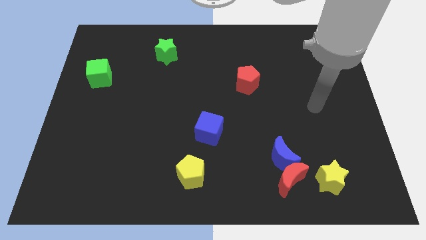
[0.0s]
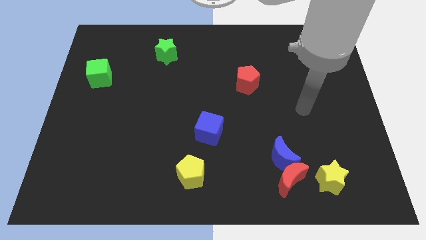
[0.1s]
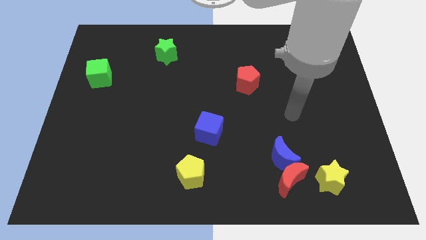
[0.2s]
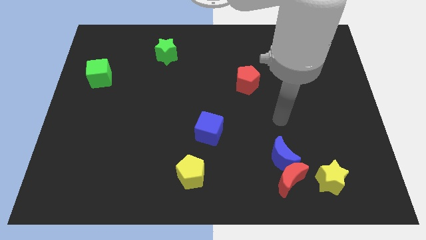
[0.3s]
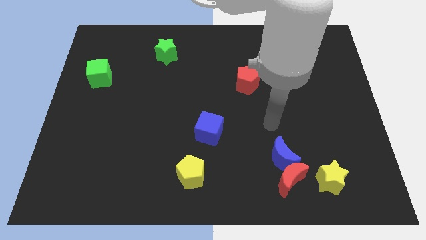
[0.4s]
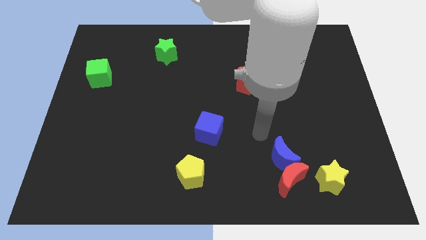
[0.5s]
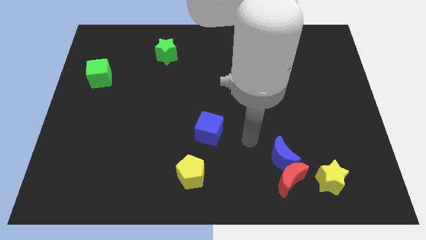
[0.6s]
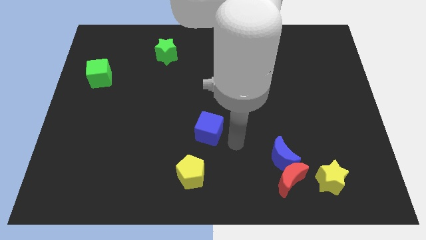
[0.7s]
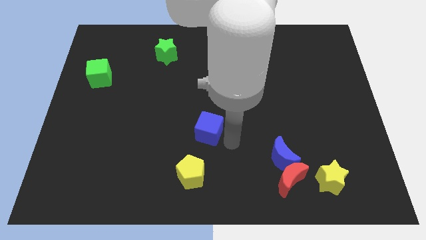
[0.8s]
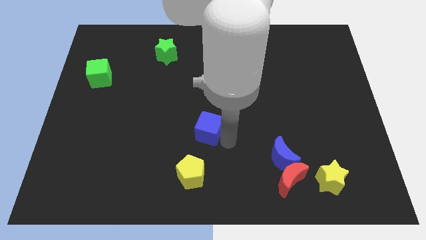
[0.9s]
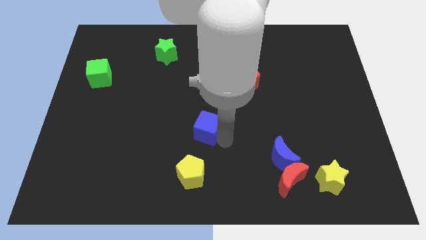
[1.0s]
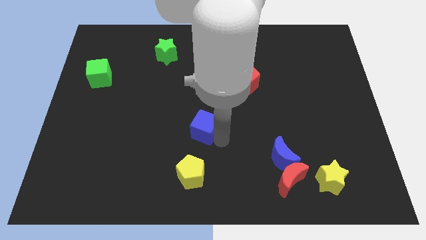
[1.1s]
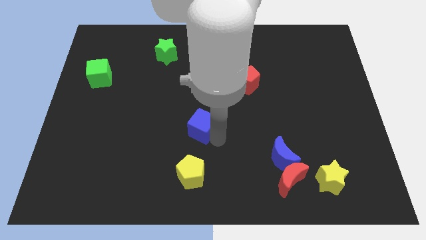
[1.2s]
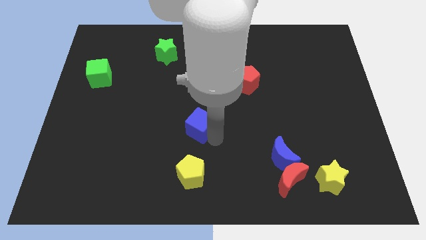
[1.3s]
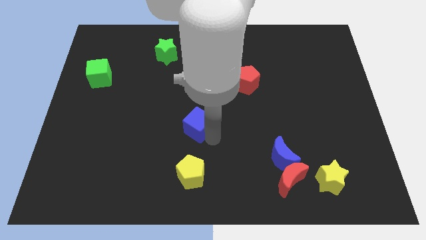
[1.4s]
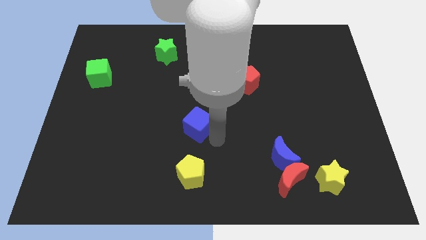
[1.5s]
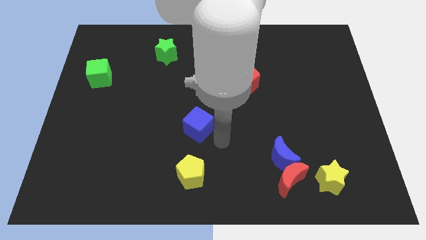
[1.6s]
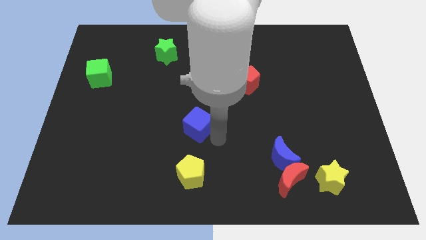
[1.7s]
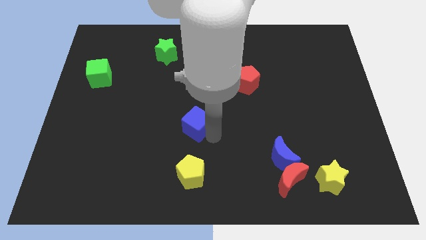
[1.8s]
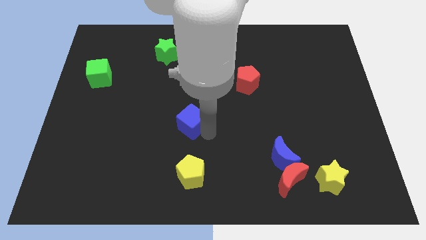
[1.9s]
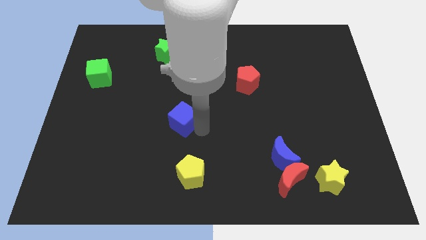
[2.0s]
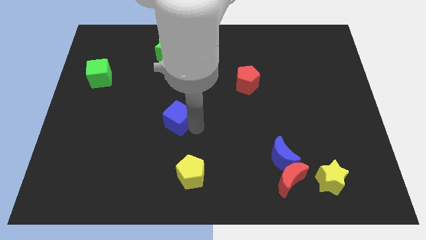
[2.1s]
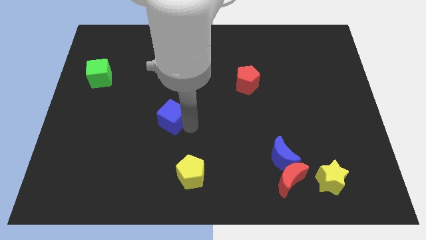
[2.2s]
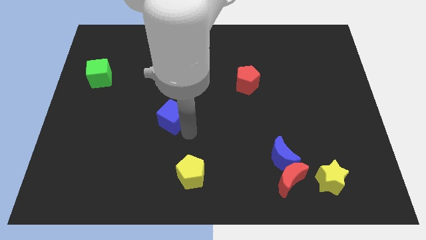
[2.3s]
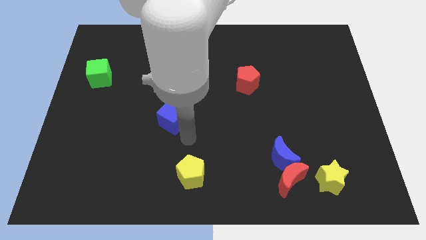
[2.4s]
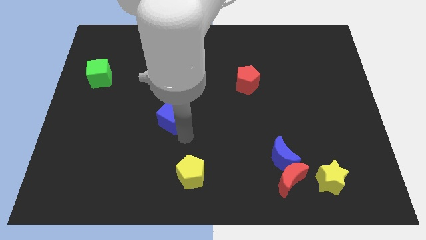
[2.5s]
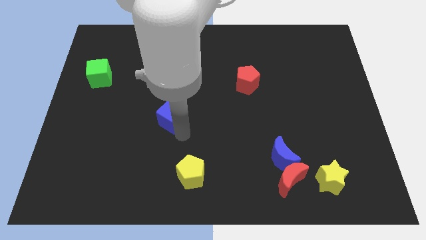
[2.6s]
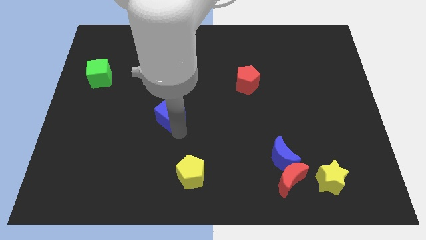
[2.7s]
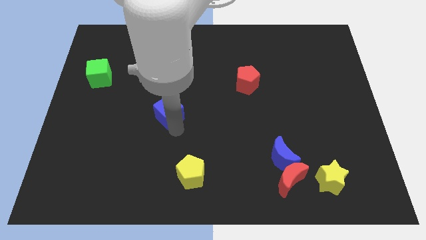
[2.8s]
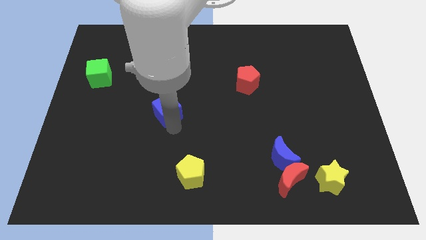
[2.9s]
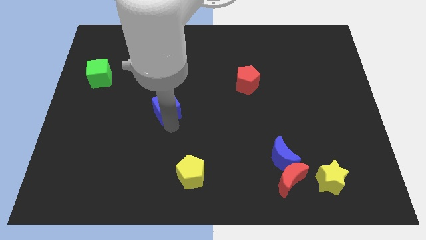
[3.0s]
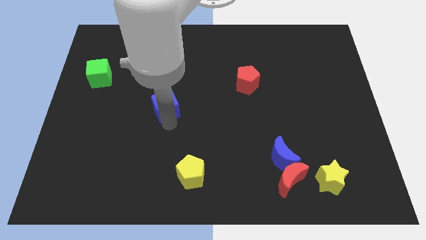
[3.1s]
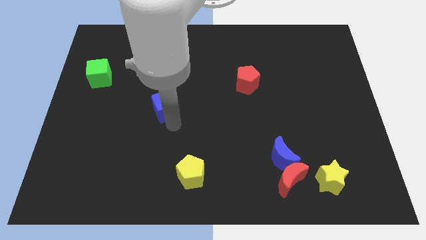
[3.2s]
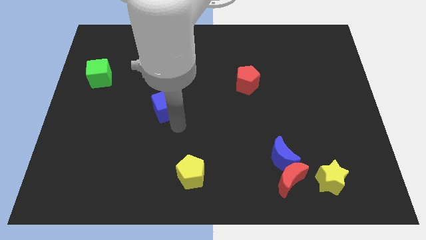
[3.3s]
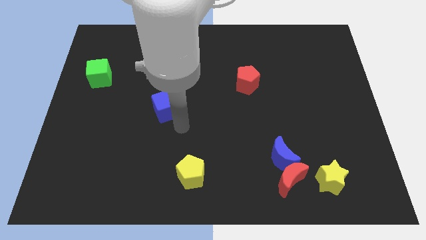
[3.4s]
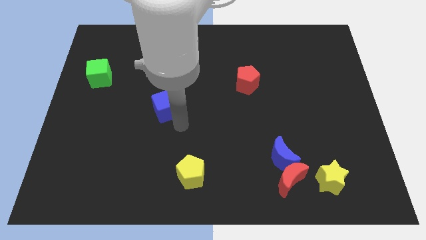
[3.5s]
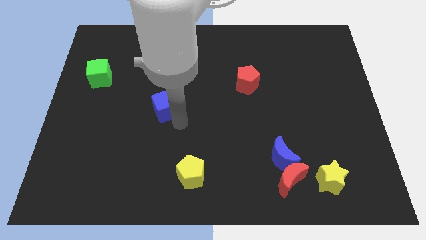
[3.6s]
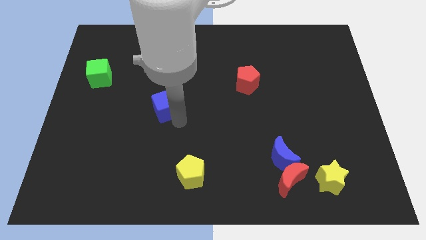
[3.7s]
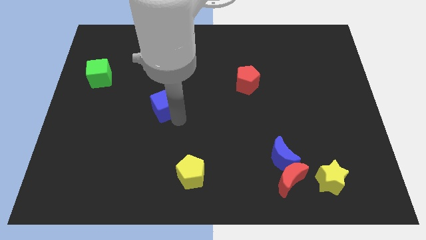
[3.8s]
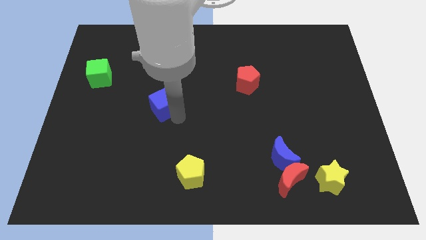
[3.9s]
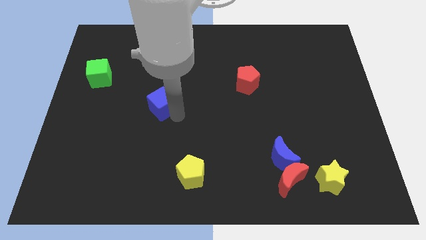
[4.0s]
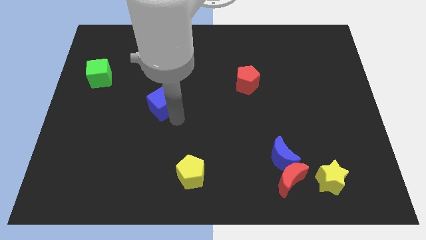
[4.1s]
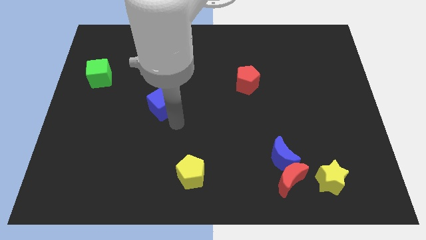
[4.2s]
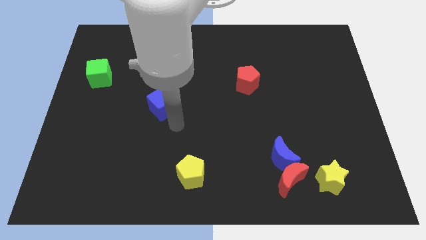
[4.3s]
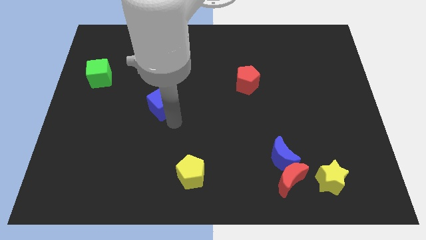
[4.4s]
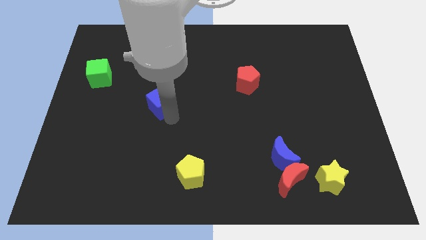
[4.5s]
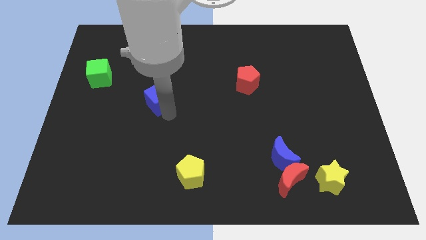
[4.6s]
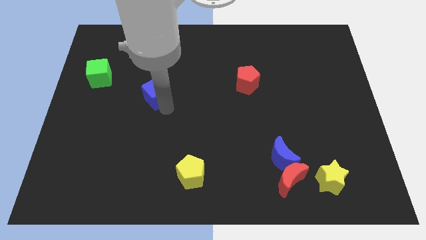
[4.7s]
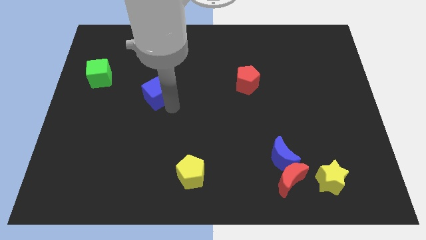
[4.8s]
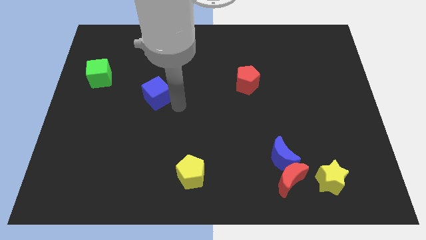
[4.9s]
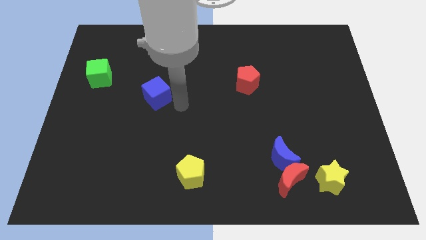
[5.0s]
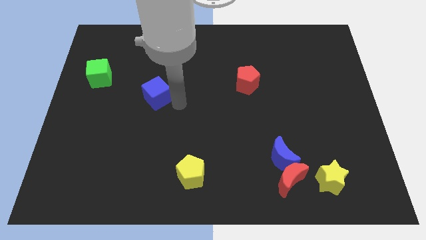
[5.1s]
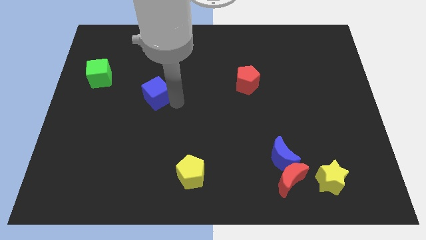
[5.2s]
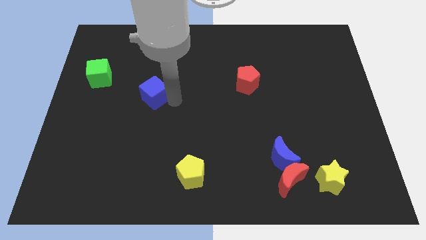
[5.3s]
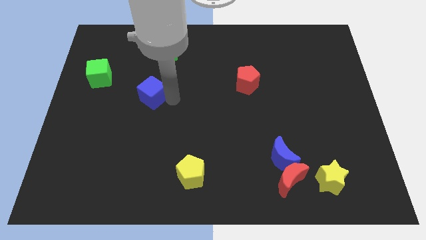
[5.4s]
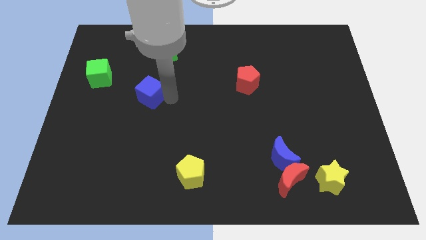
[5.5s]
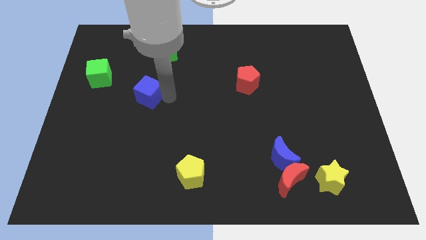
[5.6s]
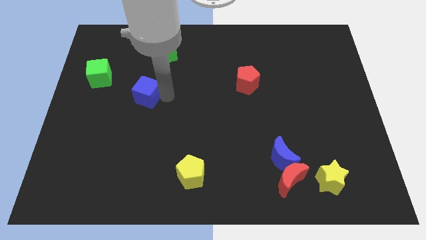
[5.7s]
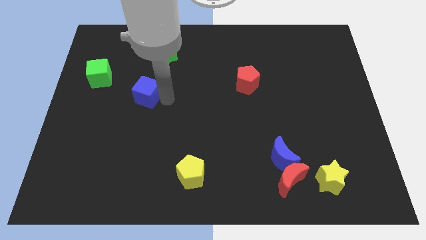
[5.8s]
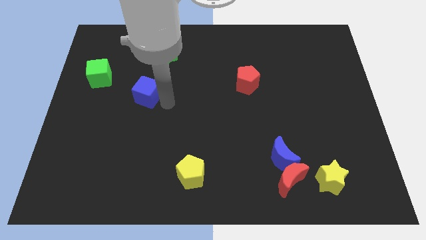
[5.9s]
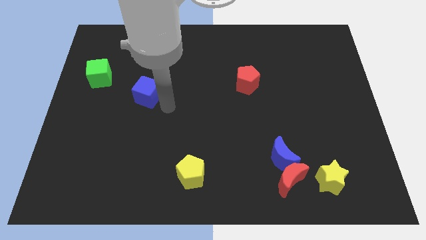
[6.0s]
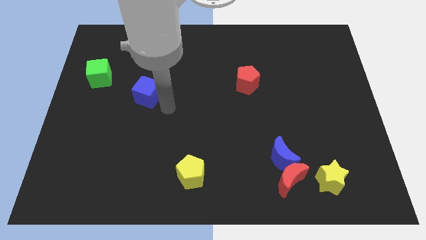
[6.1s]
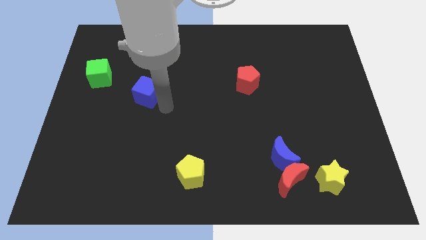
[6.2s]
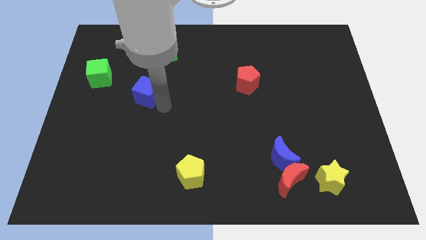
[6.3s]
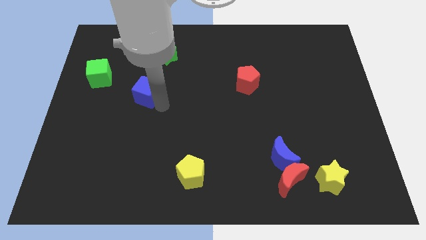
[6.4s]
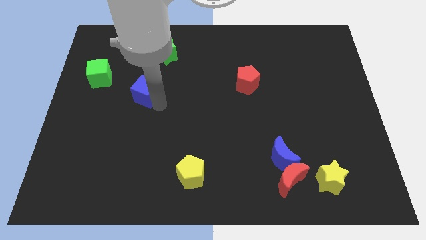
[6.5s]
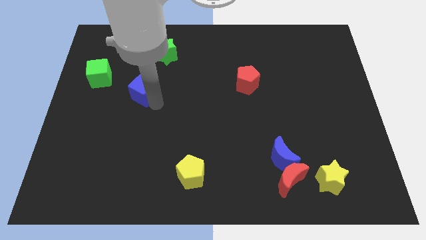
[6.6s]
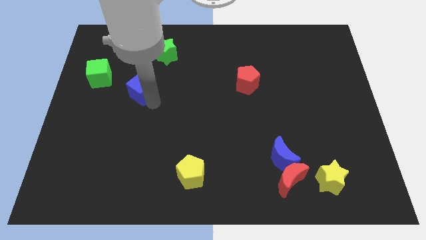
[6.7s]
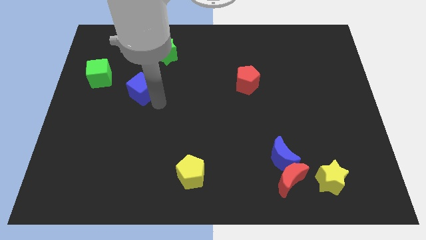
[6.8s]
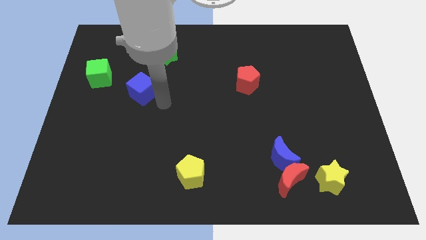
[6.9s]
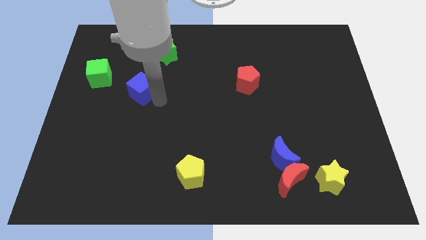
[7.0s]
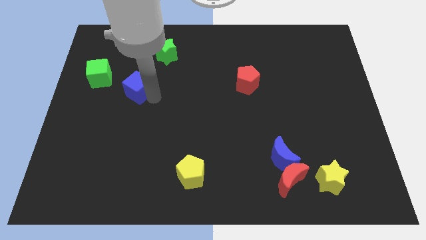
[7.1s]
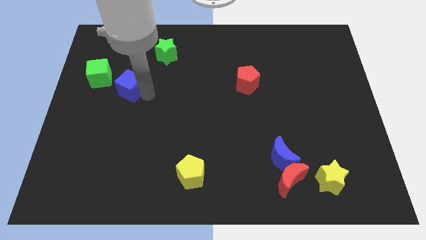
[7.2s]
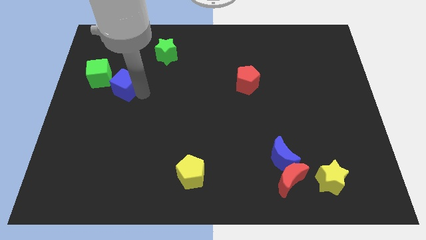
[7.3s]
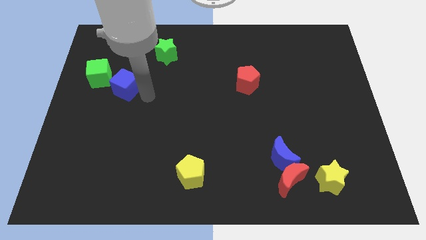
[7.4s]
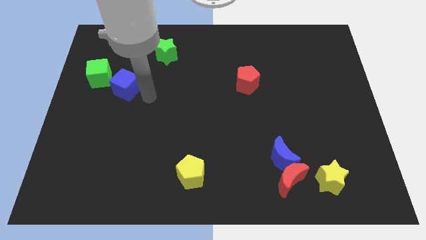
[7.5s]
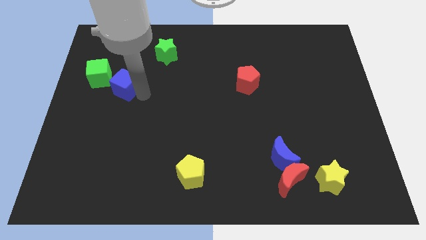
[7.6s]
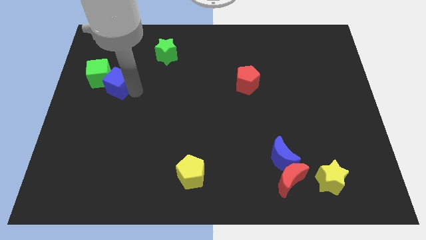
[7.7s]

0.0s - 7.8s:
push the blue cube towards the green cube
